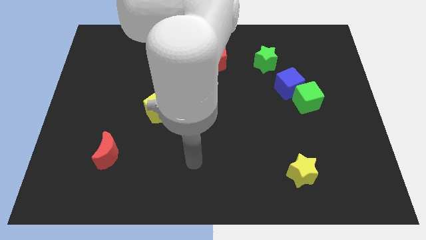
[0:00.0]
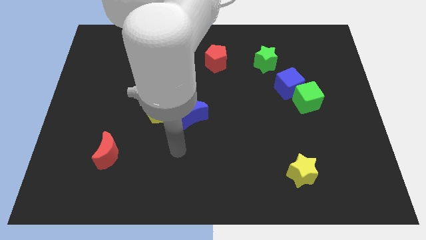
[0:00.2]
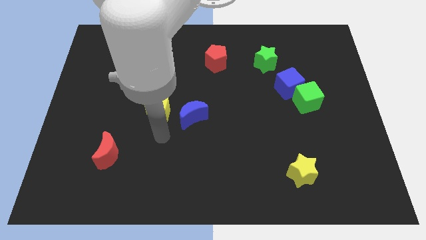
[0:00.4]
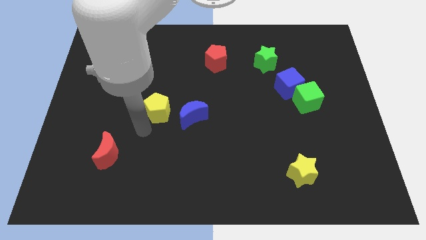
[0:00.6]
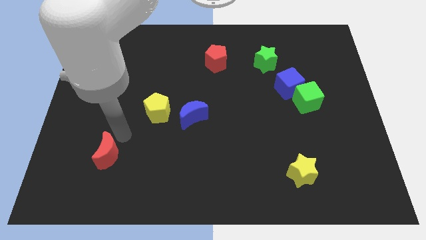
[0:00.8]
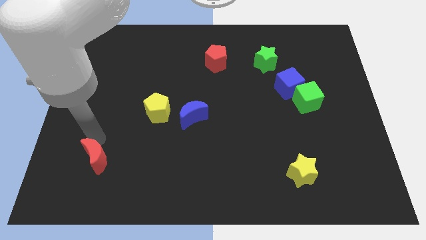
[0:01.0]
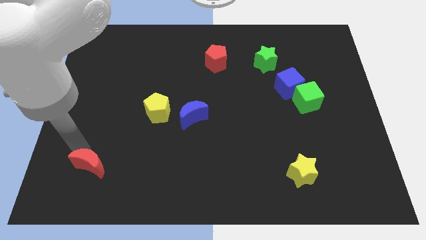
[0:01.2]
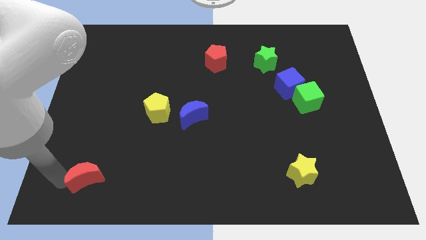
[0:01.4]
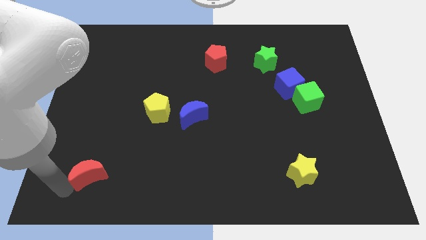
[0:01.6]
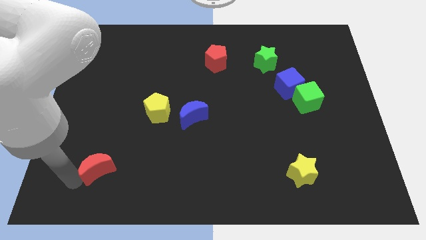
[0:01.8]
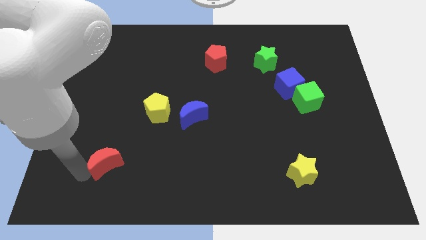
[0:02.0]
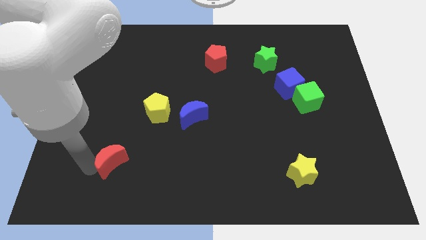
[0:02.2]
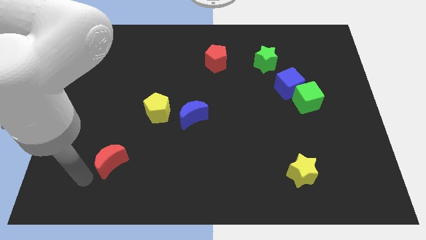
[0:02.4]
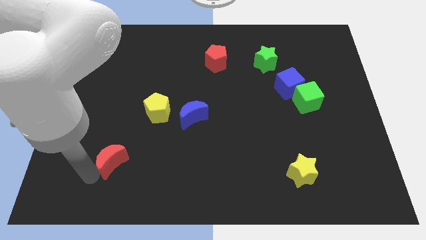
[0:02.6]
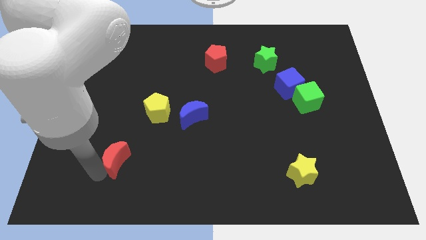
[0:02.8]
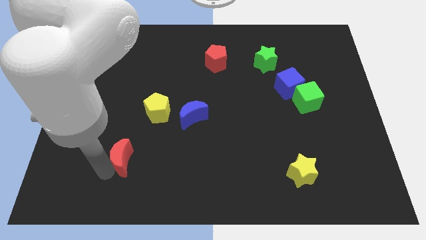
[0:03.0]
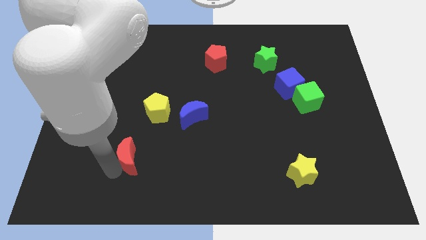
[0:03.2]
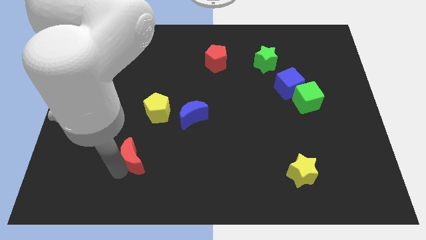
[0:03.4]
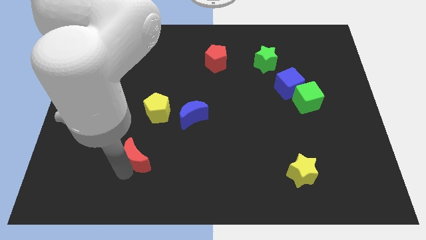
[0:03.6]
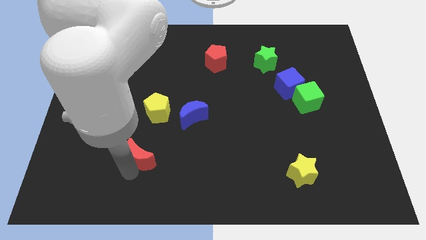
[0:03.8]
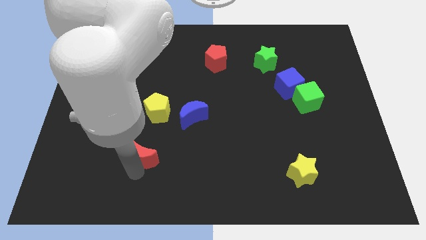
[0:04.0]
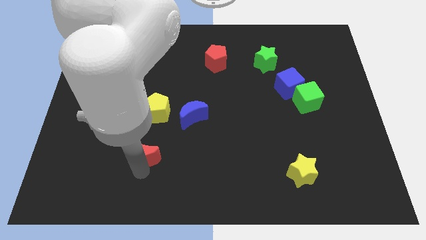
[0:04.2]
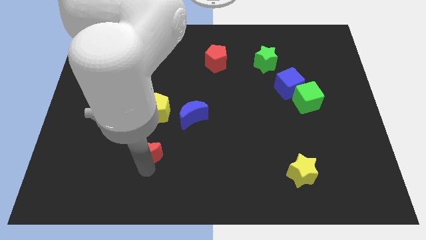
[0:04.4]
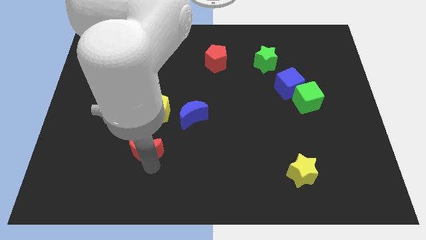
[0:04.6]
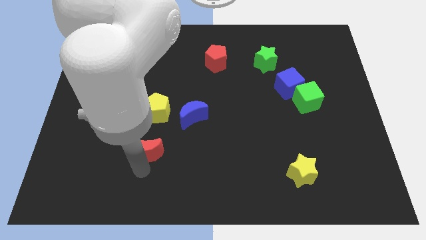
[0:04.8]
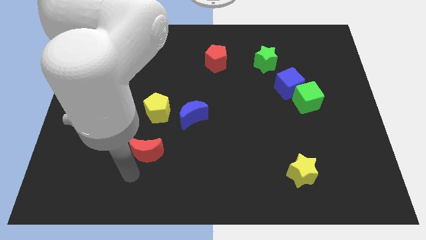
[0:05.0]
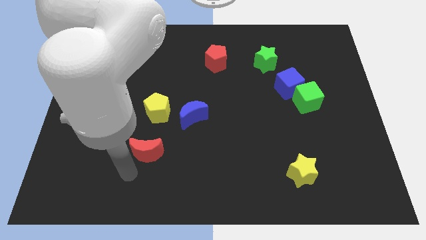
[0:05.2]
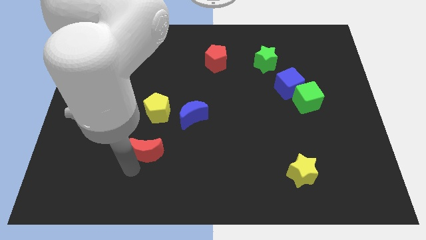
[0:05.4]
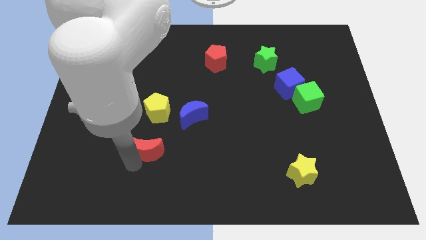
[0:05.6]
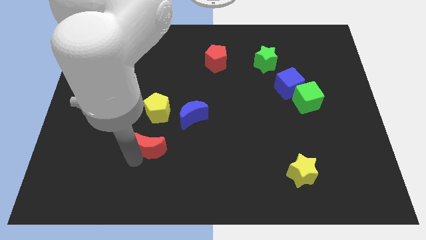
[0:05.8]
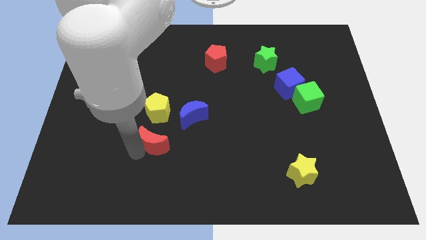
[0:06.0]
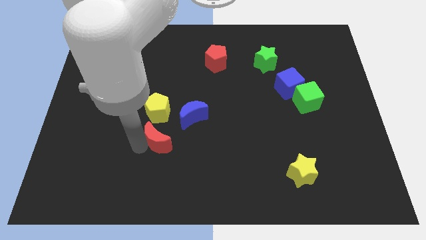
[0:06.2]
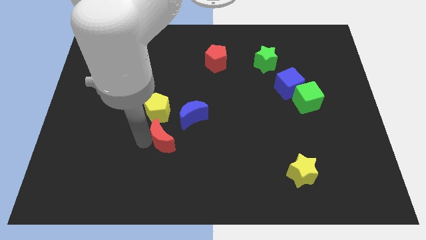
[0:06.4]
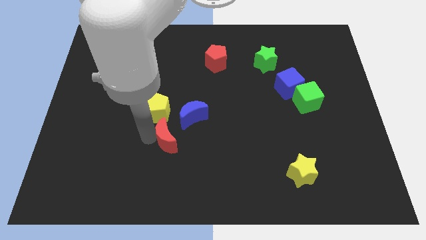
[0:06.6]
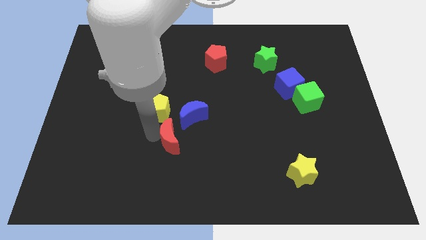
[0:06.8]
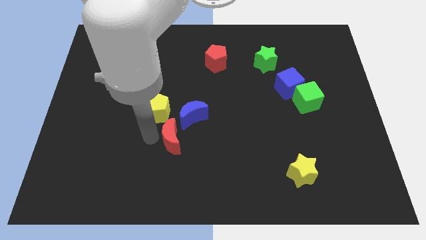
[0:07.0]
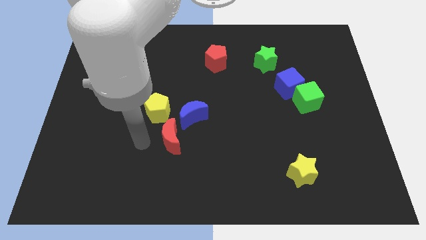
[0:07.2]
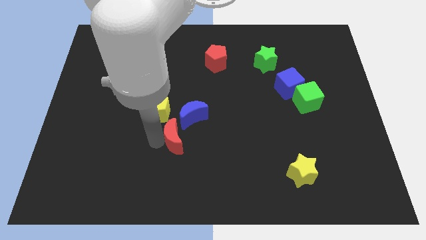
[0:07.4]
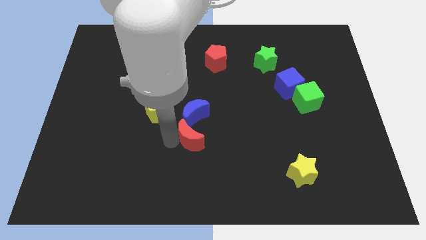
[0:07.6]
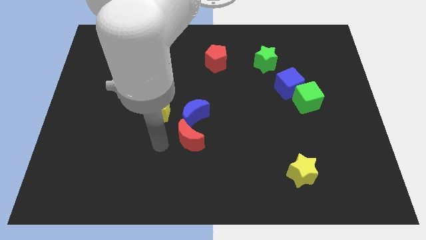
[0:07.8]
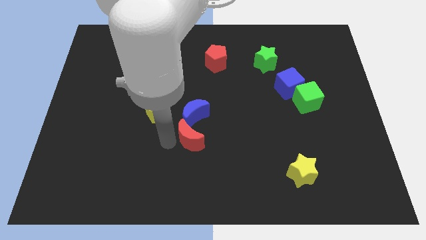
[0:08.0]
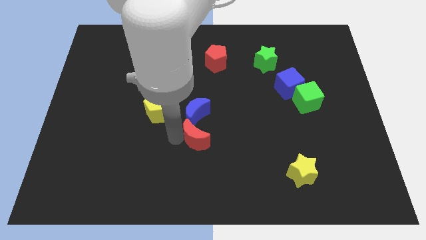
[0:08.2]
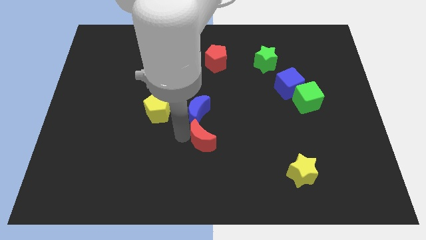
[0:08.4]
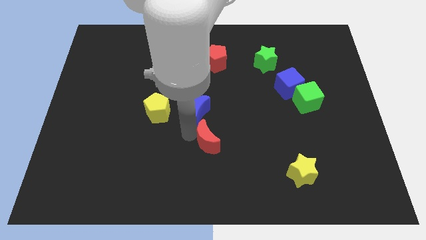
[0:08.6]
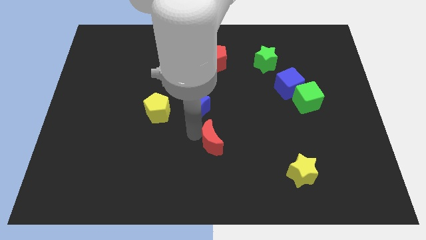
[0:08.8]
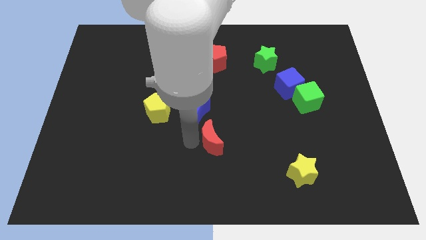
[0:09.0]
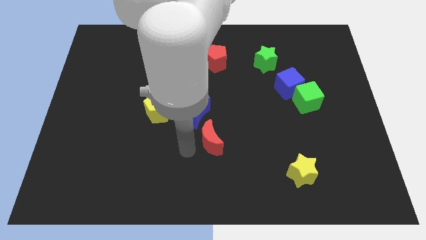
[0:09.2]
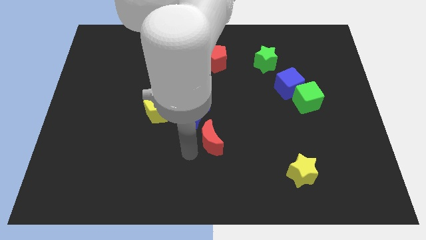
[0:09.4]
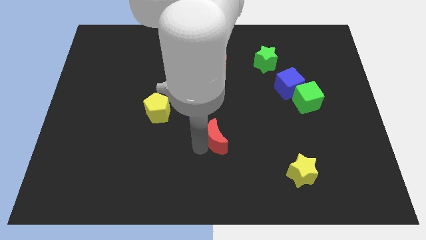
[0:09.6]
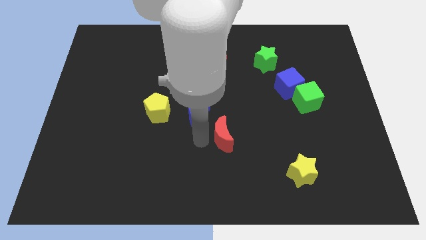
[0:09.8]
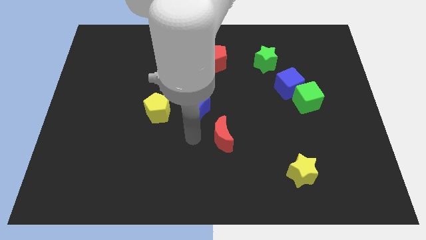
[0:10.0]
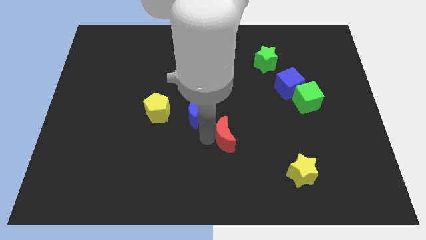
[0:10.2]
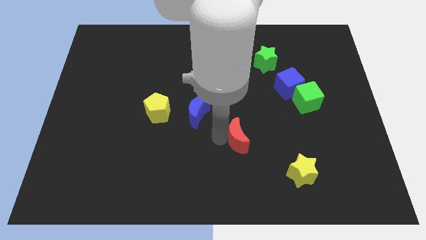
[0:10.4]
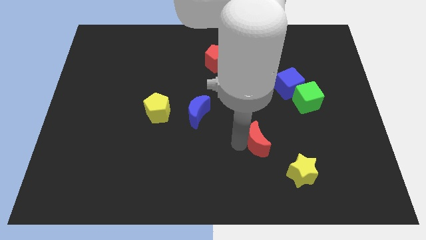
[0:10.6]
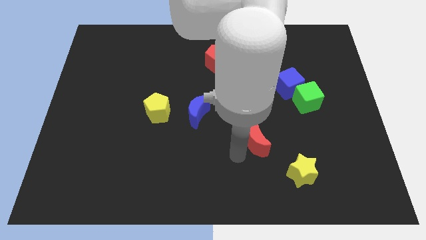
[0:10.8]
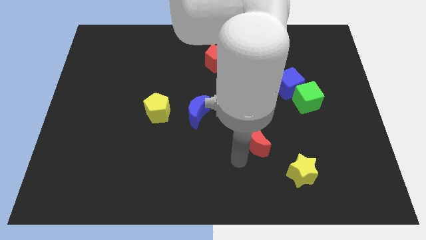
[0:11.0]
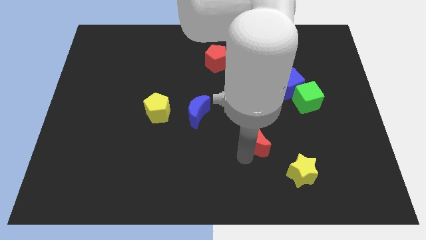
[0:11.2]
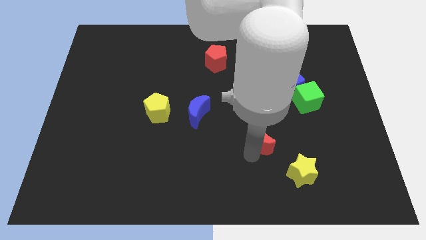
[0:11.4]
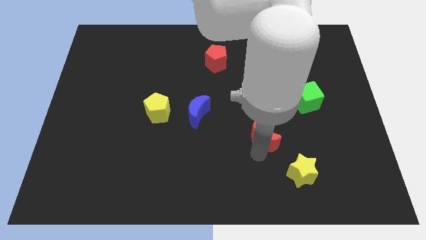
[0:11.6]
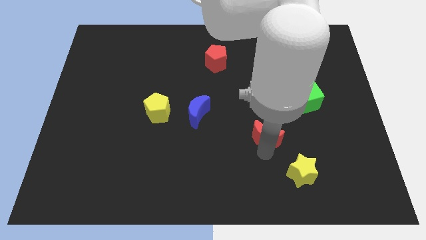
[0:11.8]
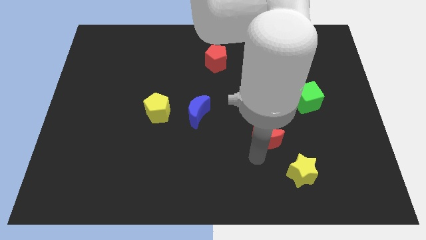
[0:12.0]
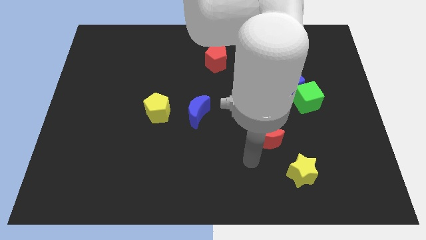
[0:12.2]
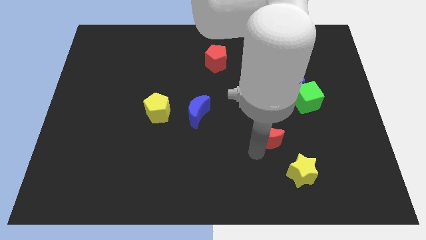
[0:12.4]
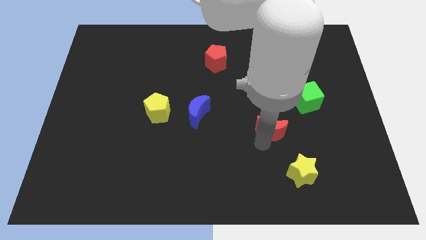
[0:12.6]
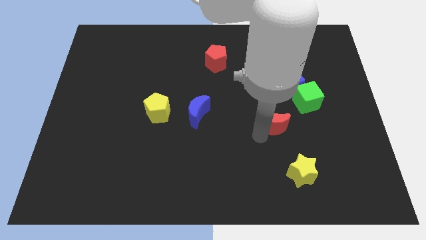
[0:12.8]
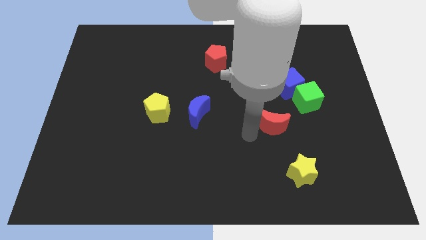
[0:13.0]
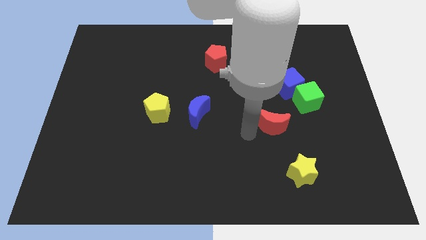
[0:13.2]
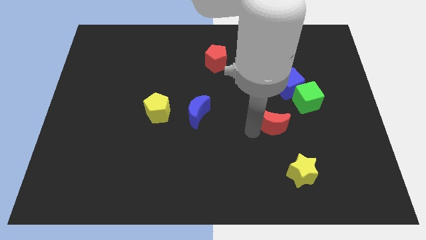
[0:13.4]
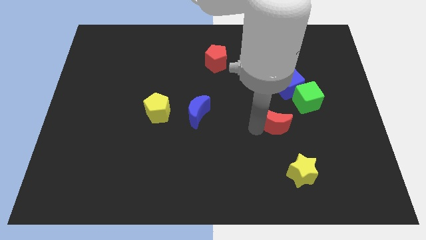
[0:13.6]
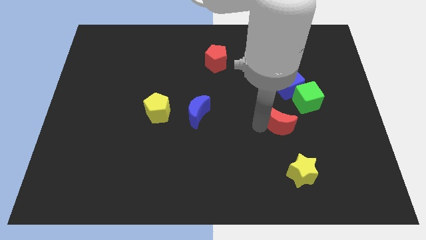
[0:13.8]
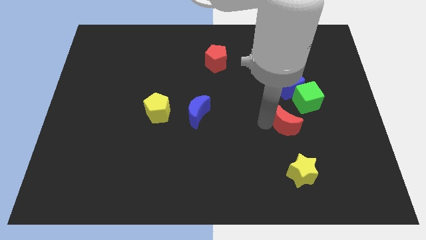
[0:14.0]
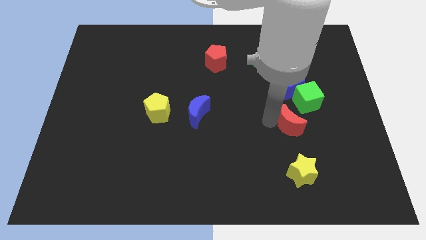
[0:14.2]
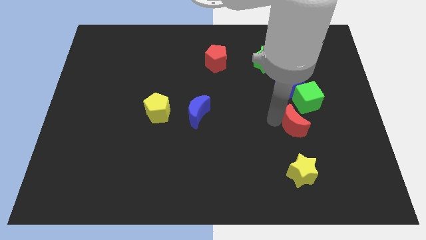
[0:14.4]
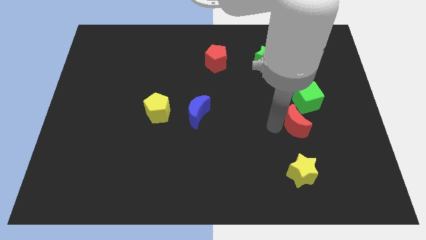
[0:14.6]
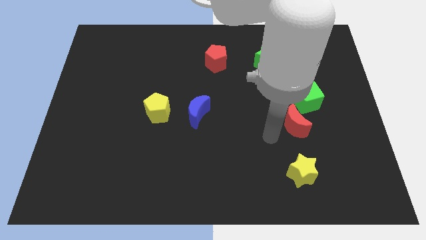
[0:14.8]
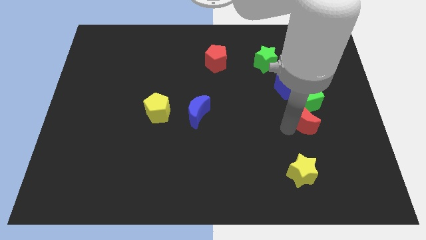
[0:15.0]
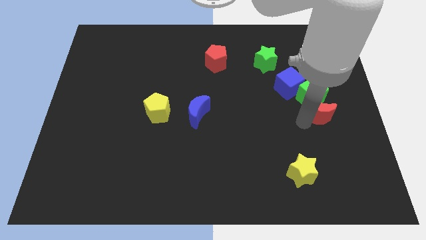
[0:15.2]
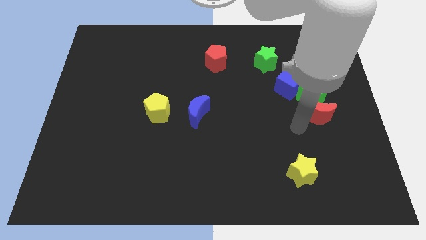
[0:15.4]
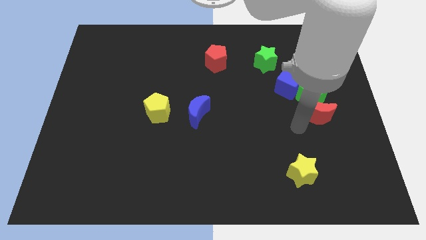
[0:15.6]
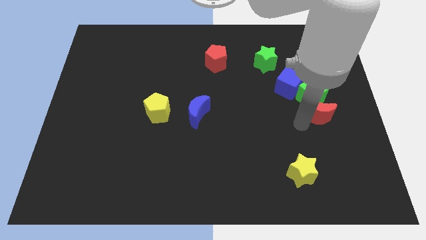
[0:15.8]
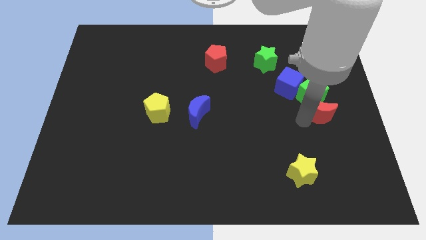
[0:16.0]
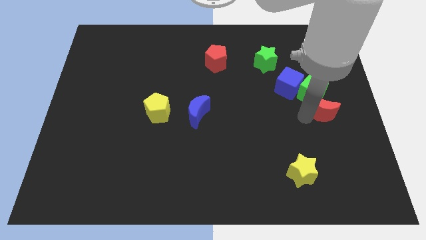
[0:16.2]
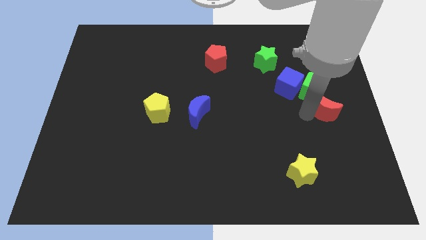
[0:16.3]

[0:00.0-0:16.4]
put the red moon to the right side
